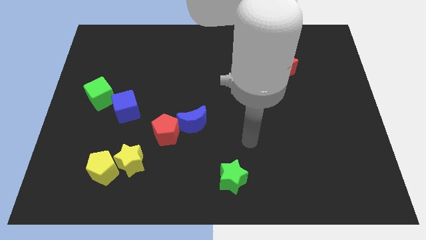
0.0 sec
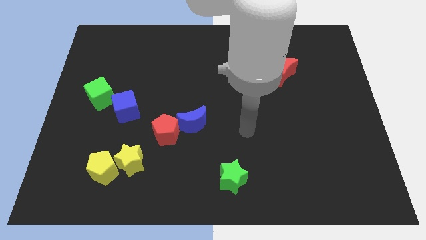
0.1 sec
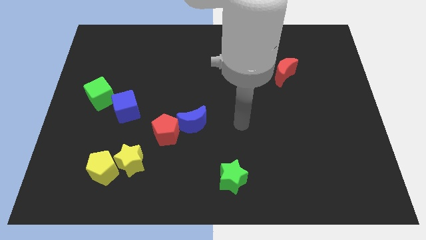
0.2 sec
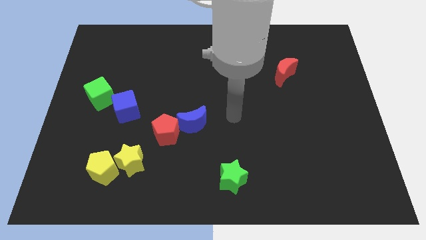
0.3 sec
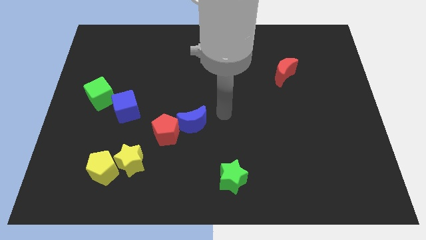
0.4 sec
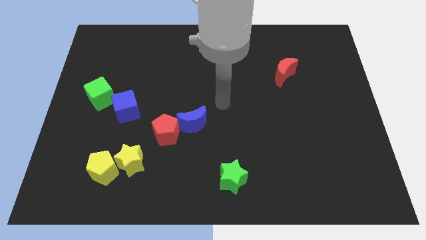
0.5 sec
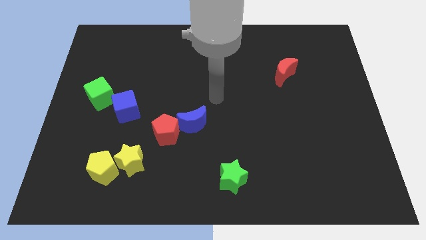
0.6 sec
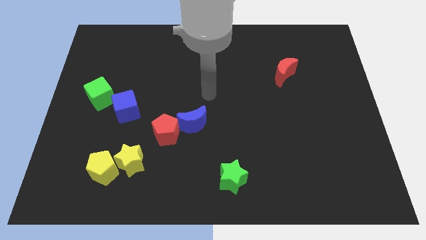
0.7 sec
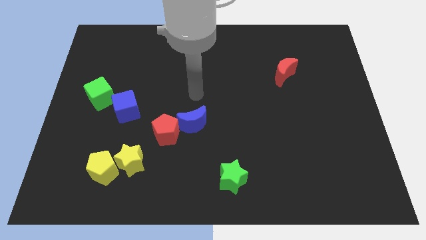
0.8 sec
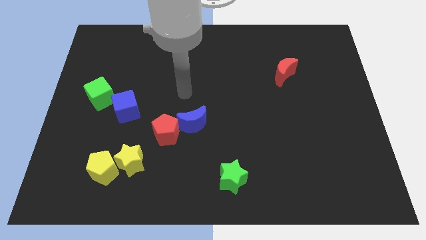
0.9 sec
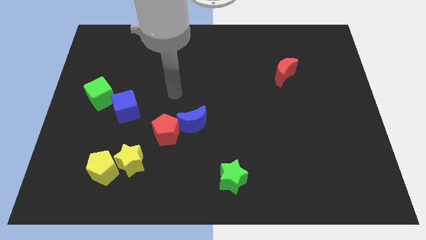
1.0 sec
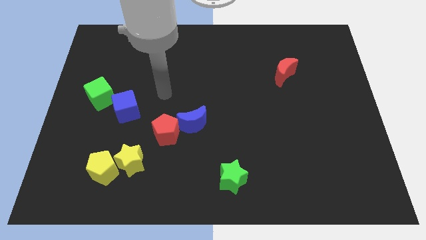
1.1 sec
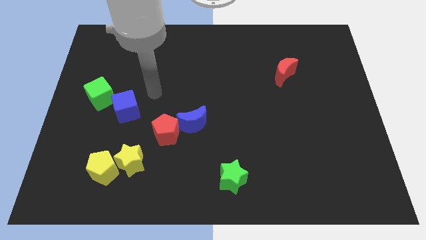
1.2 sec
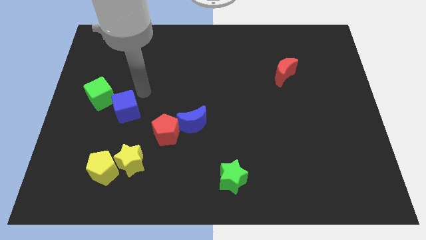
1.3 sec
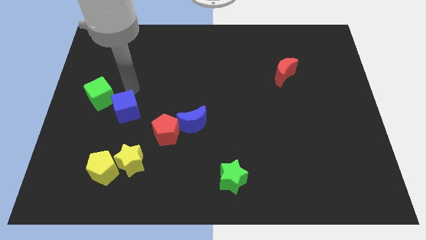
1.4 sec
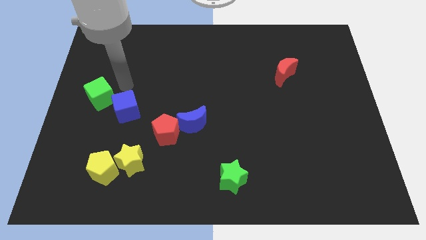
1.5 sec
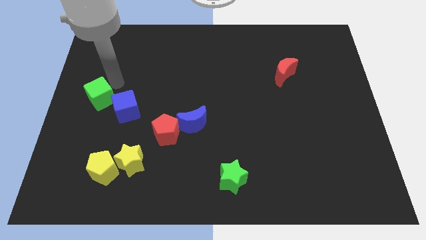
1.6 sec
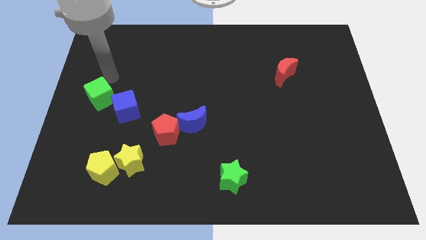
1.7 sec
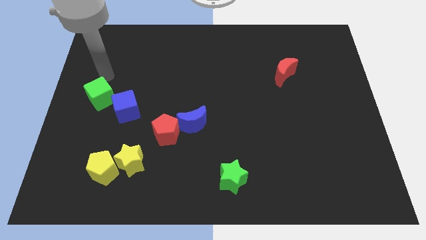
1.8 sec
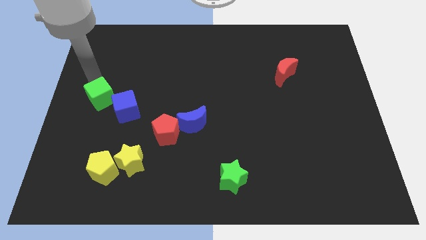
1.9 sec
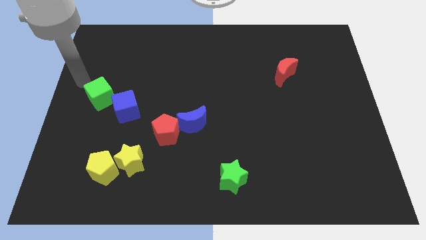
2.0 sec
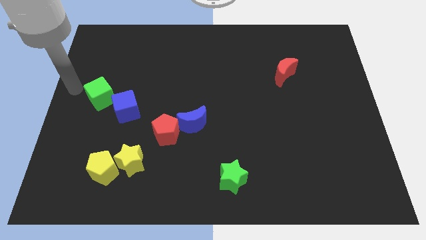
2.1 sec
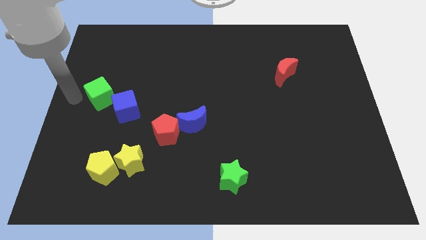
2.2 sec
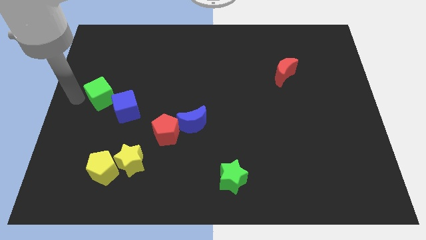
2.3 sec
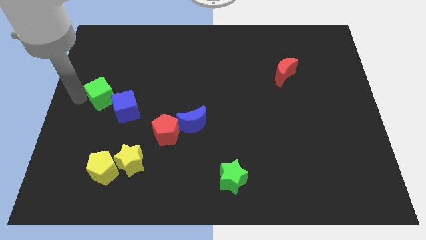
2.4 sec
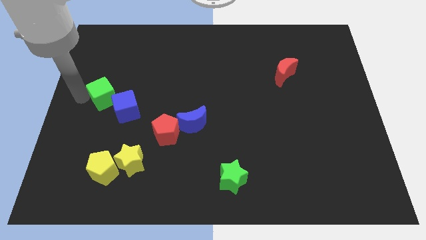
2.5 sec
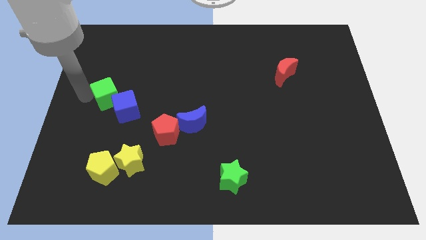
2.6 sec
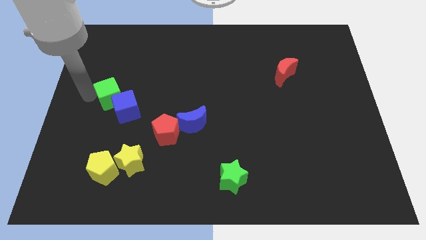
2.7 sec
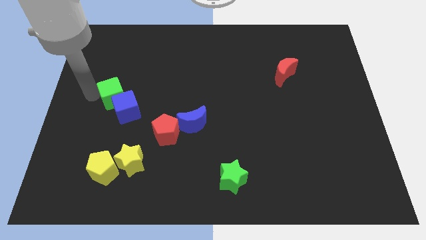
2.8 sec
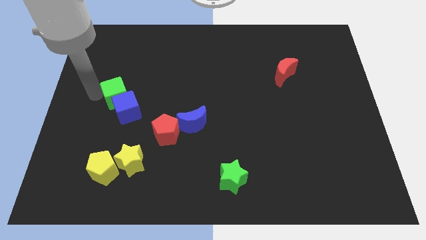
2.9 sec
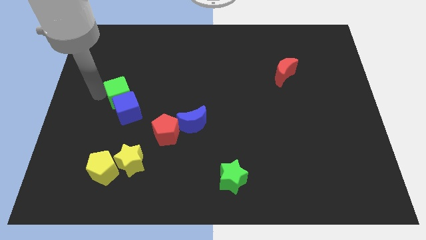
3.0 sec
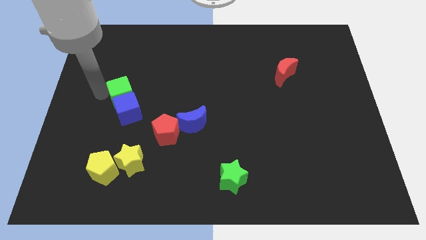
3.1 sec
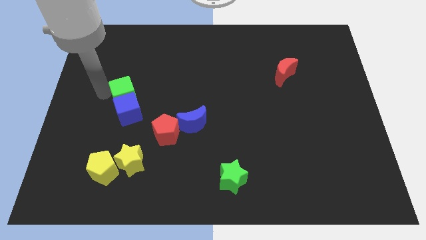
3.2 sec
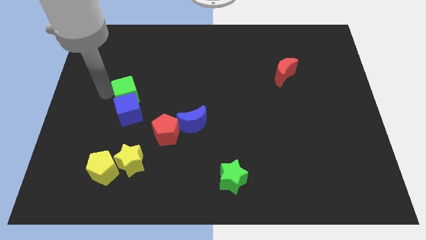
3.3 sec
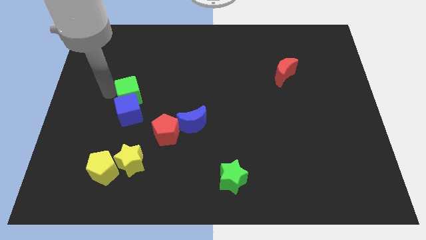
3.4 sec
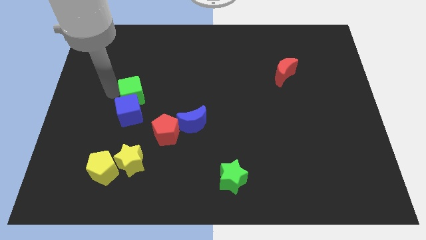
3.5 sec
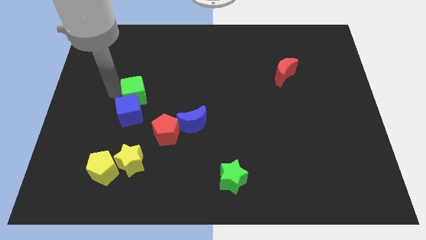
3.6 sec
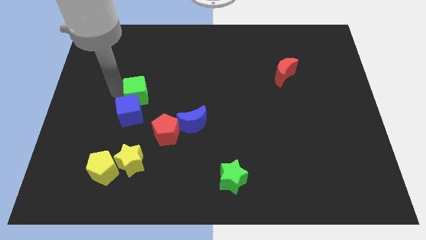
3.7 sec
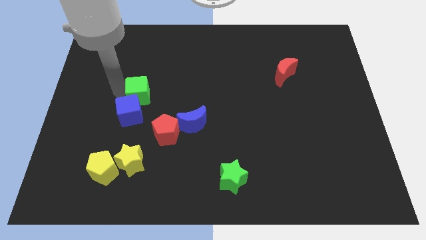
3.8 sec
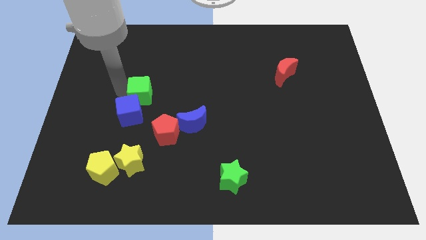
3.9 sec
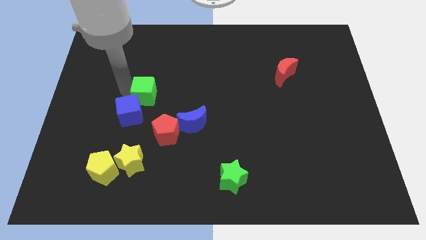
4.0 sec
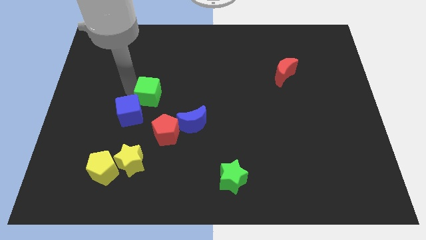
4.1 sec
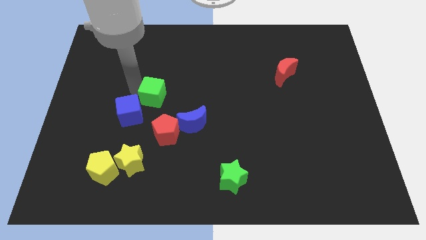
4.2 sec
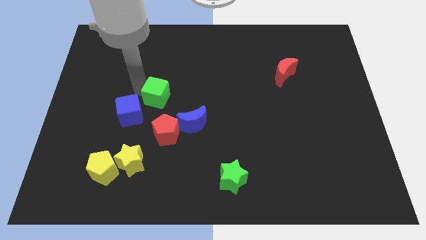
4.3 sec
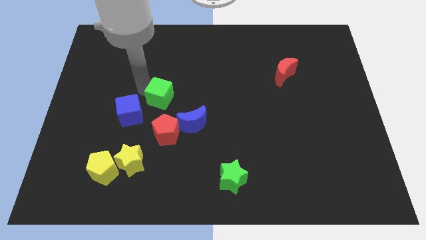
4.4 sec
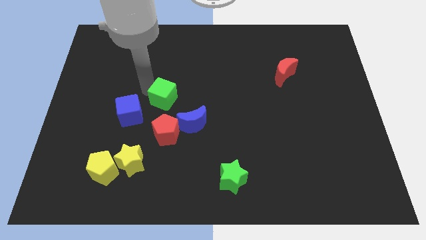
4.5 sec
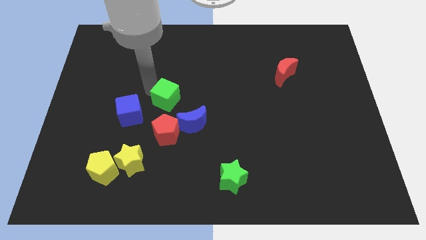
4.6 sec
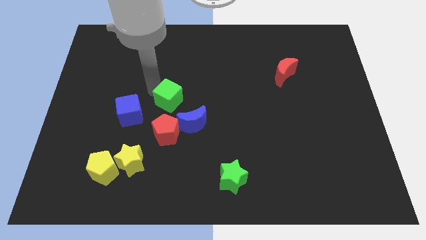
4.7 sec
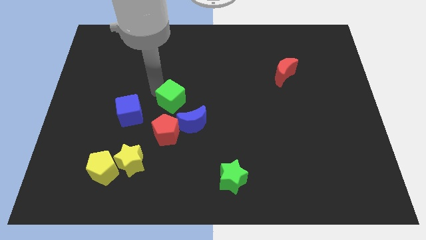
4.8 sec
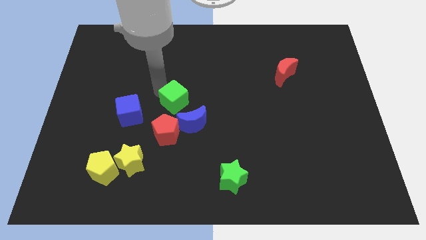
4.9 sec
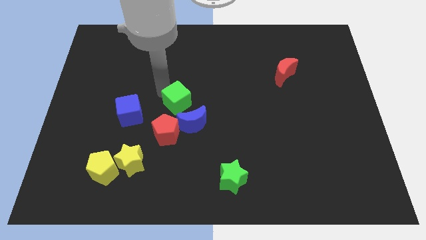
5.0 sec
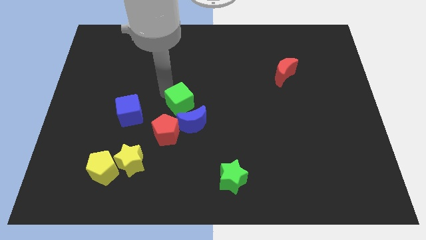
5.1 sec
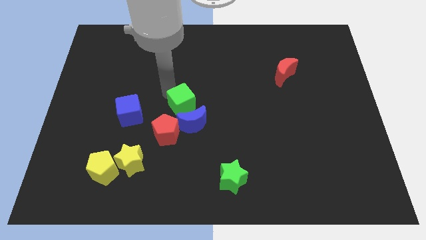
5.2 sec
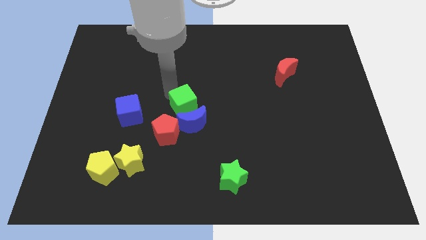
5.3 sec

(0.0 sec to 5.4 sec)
push the green cube next to the blue moon

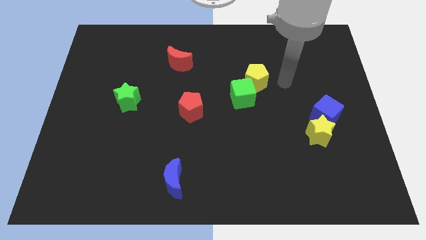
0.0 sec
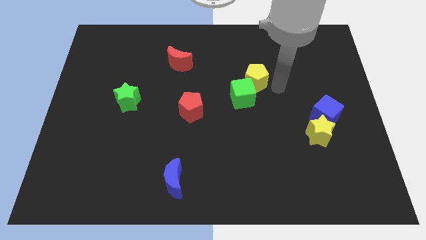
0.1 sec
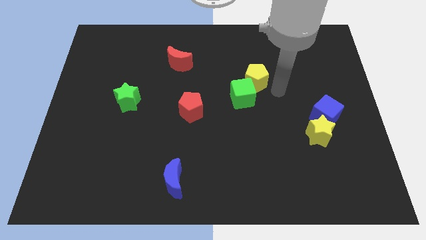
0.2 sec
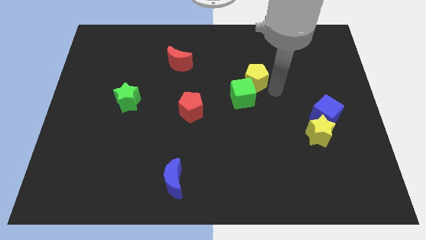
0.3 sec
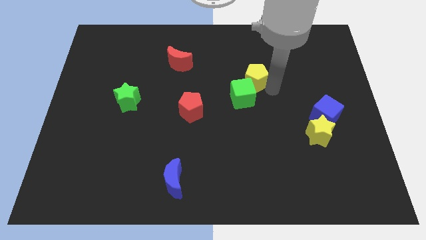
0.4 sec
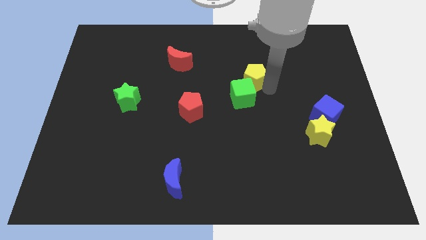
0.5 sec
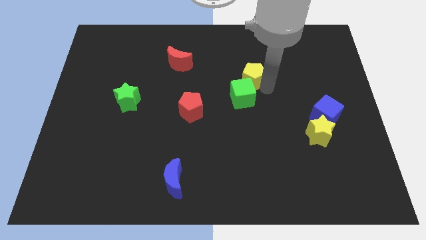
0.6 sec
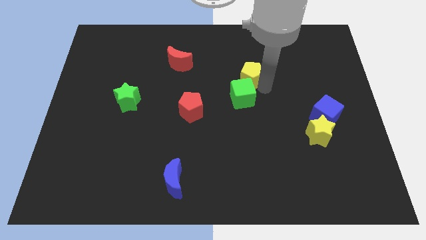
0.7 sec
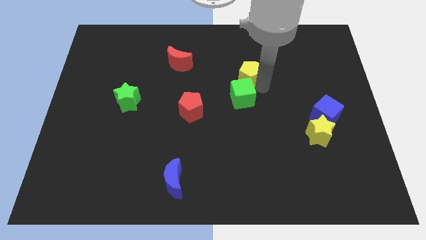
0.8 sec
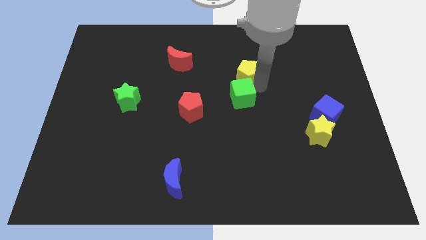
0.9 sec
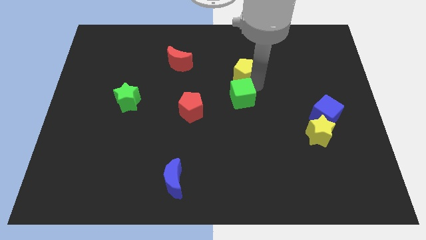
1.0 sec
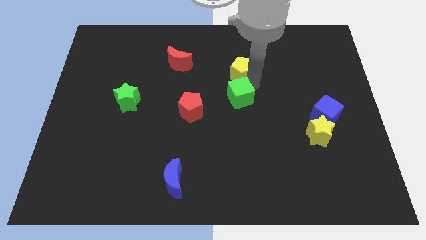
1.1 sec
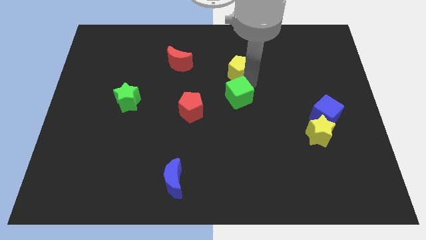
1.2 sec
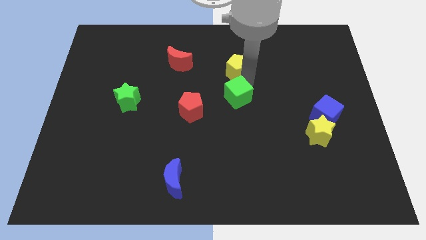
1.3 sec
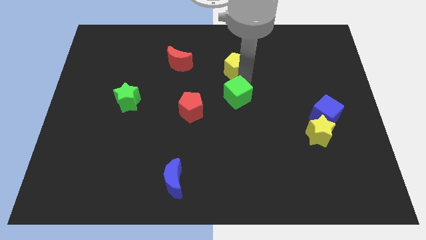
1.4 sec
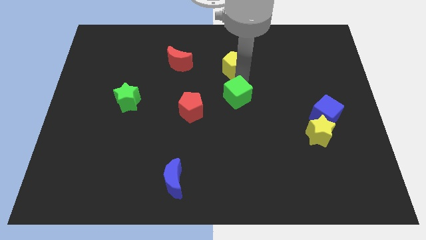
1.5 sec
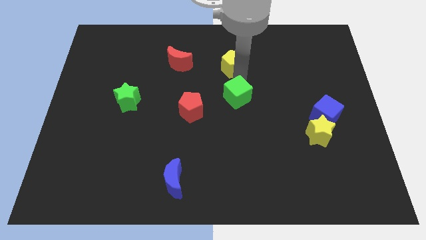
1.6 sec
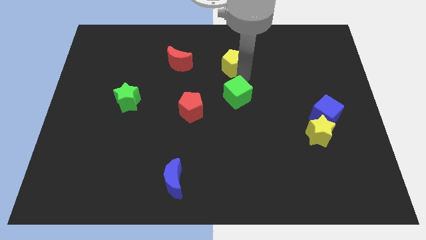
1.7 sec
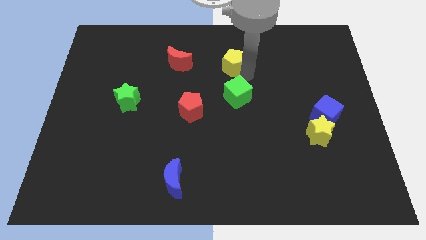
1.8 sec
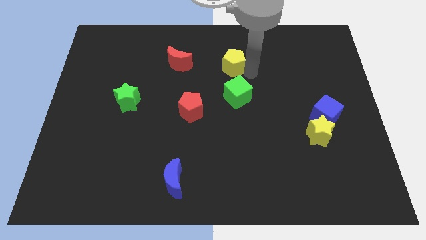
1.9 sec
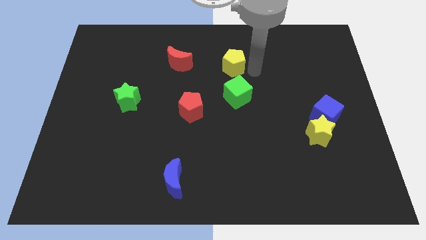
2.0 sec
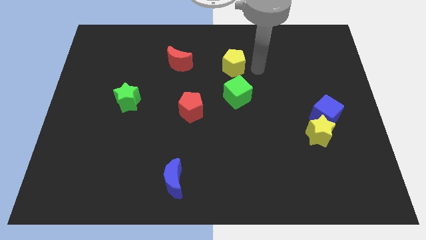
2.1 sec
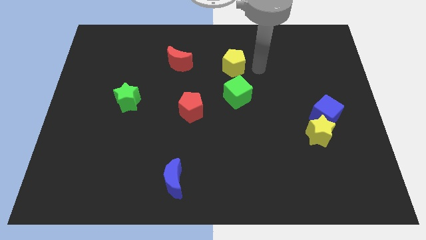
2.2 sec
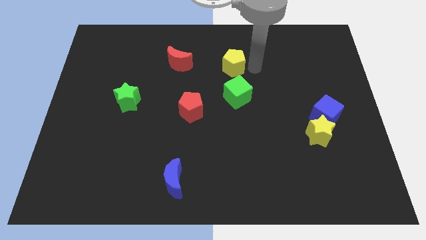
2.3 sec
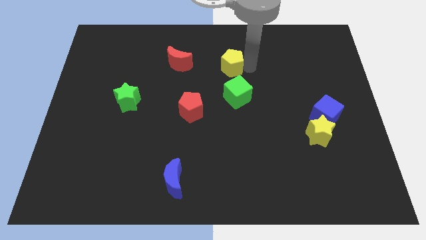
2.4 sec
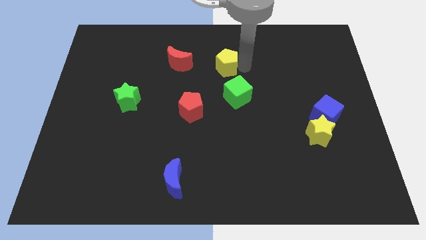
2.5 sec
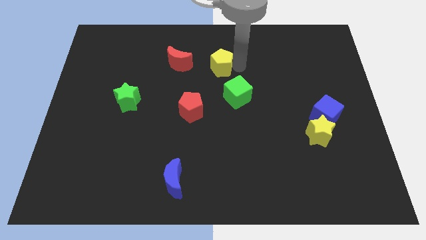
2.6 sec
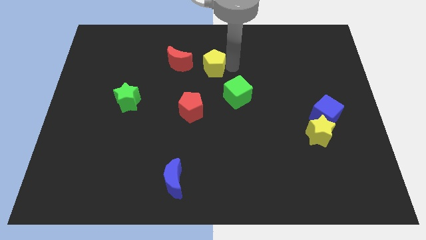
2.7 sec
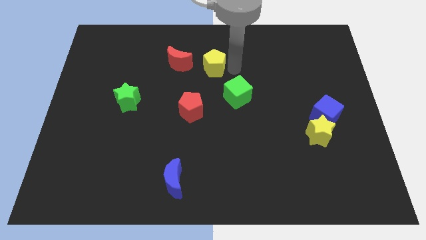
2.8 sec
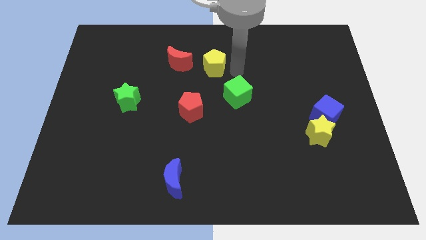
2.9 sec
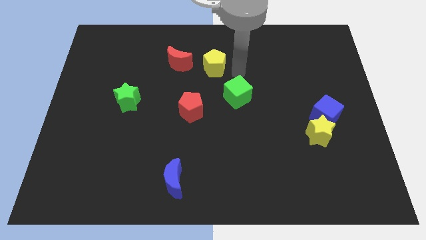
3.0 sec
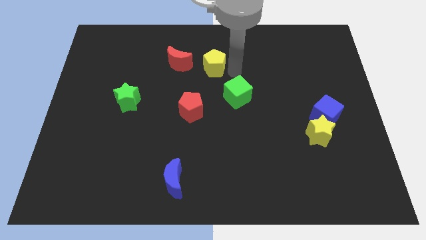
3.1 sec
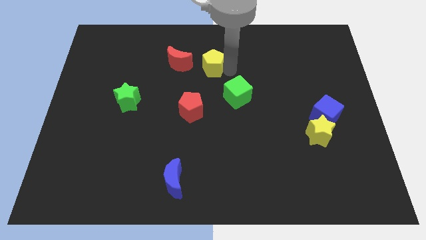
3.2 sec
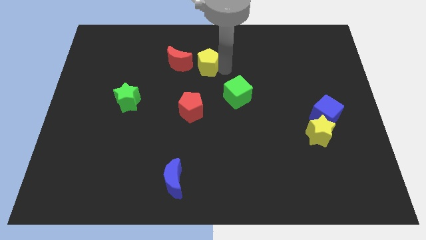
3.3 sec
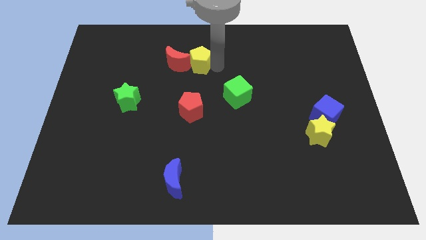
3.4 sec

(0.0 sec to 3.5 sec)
push the yellow pentagon next to the red moon

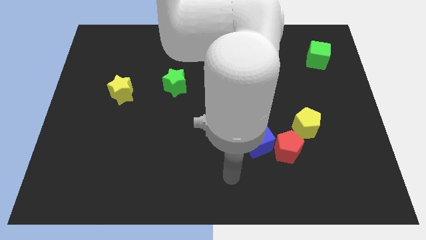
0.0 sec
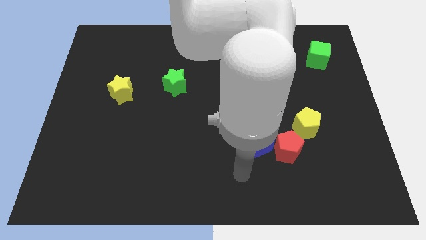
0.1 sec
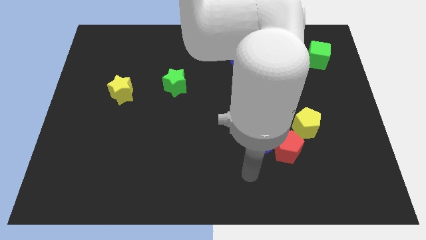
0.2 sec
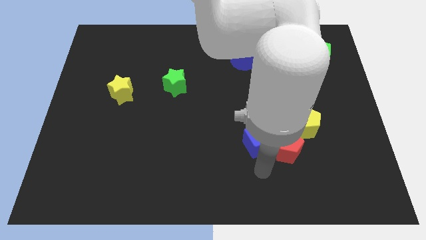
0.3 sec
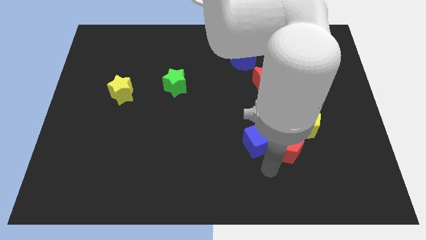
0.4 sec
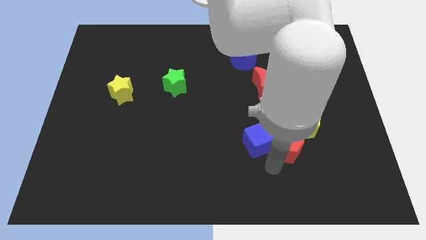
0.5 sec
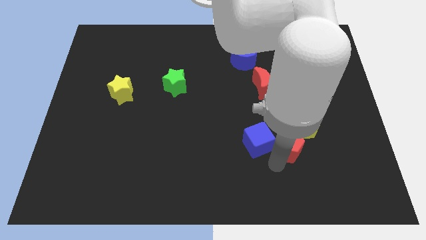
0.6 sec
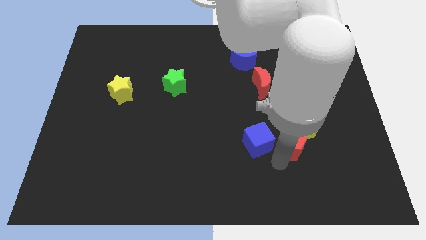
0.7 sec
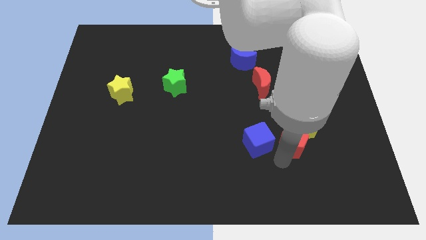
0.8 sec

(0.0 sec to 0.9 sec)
put the red pentagon towards the yellow pentagon
